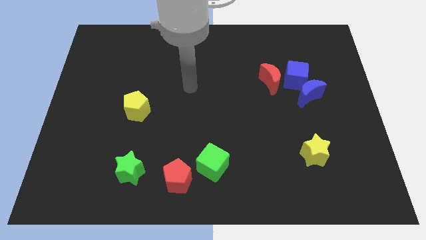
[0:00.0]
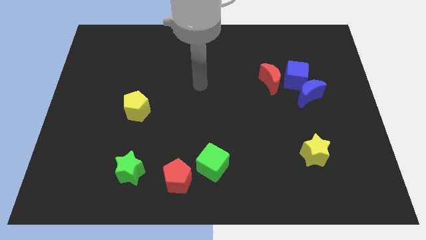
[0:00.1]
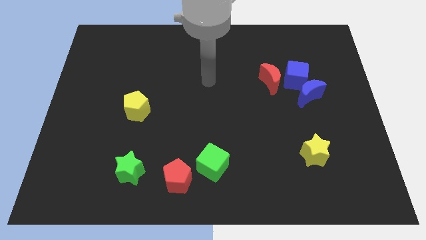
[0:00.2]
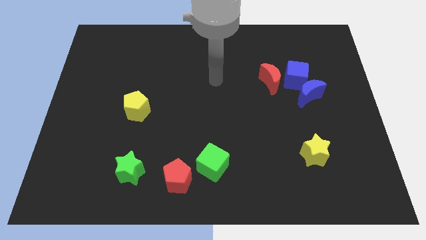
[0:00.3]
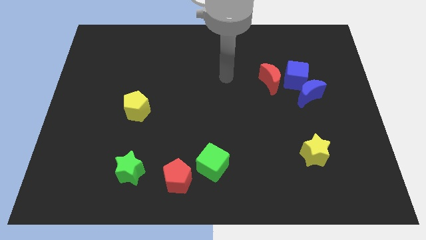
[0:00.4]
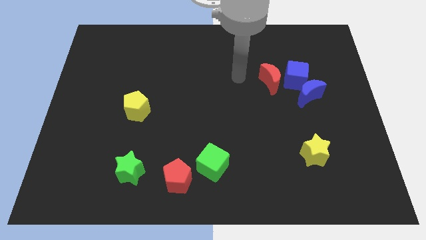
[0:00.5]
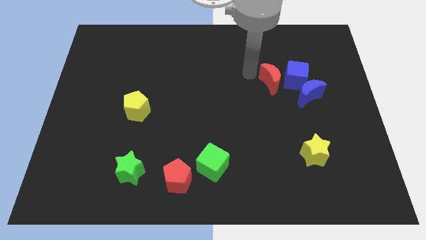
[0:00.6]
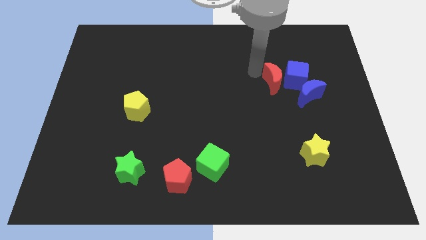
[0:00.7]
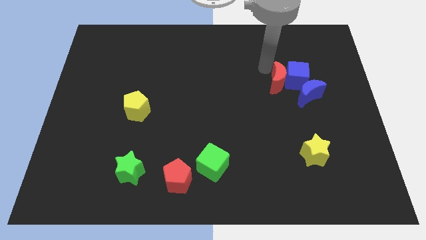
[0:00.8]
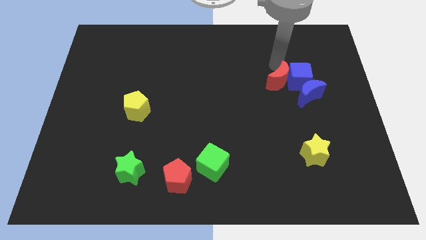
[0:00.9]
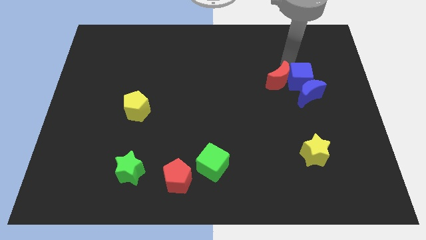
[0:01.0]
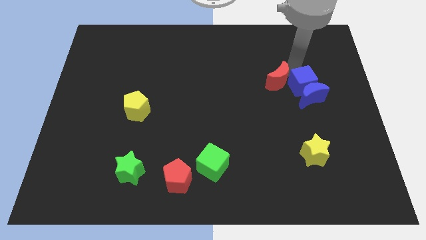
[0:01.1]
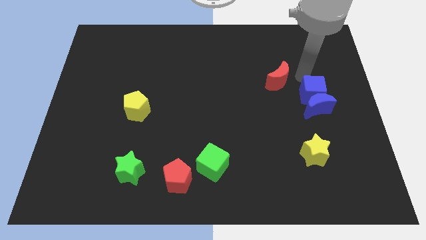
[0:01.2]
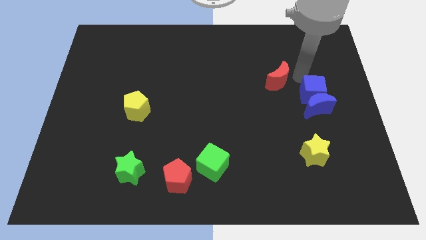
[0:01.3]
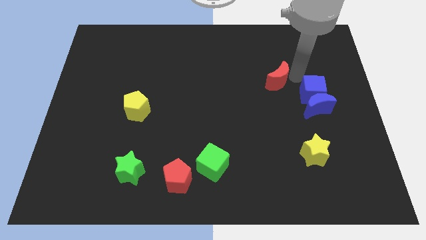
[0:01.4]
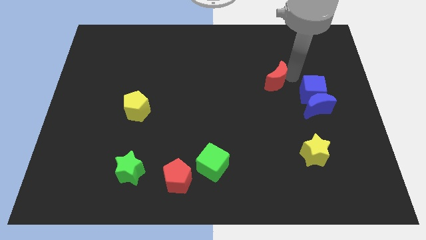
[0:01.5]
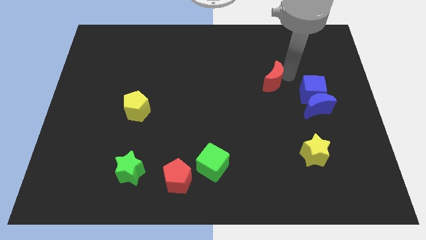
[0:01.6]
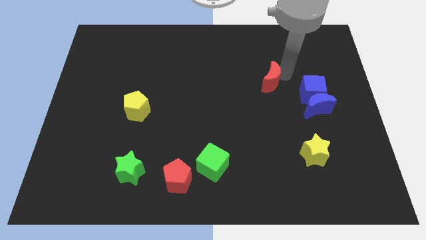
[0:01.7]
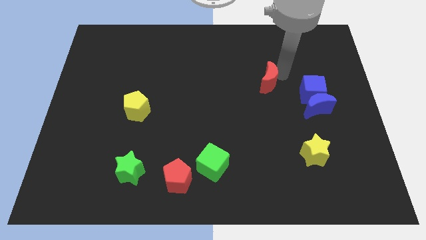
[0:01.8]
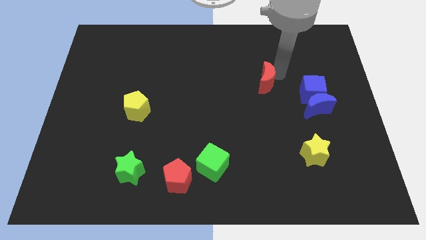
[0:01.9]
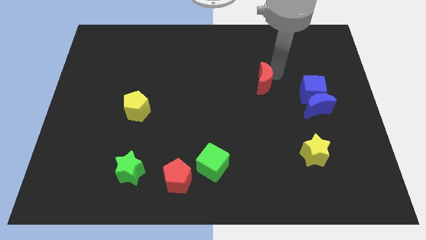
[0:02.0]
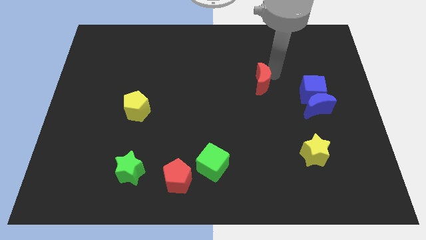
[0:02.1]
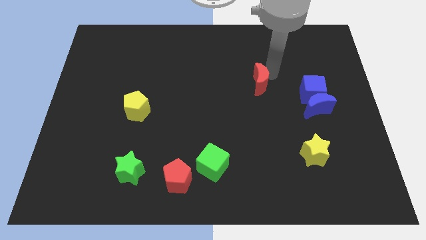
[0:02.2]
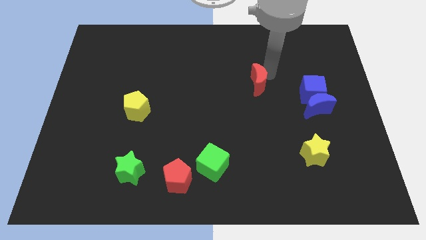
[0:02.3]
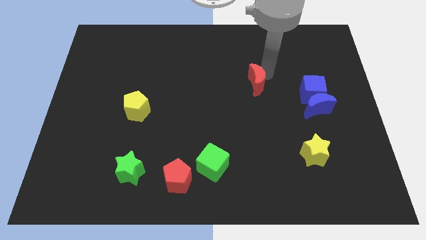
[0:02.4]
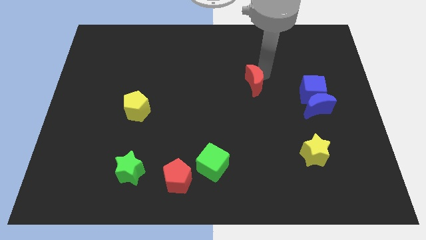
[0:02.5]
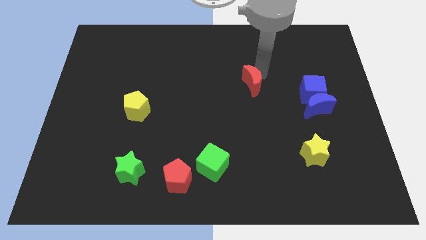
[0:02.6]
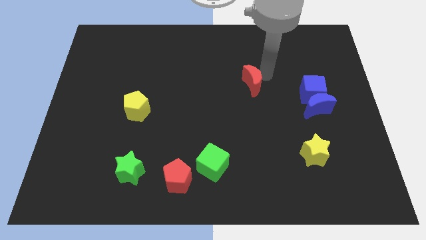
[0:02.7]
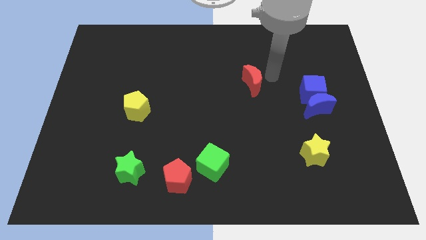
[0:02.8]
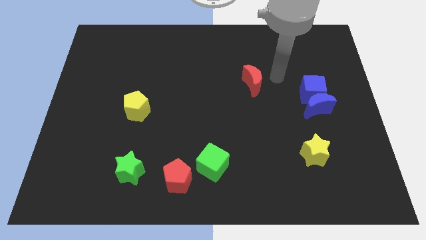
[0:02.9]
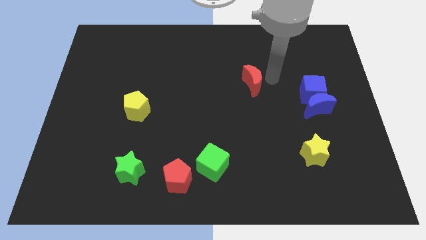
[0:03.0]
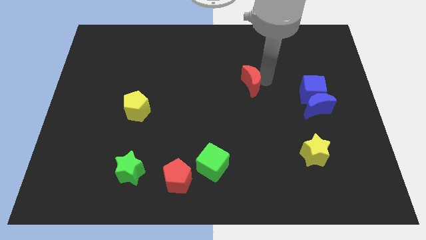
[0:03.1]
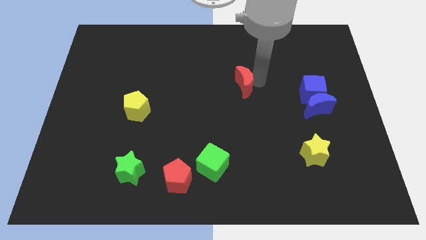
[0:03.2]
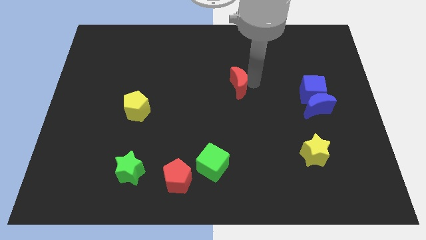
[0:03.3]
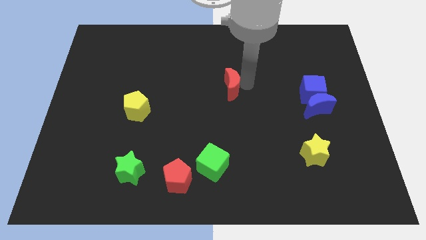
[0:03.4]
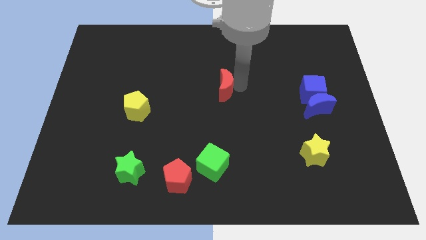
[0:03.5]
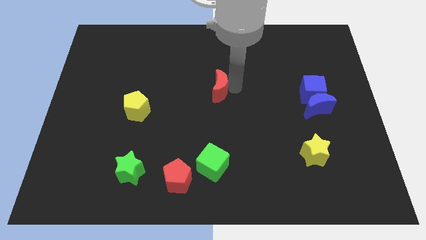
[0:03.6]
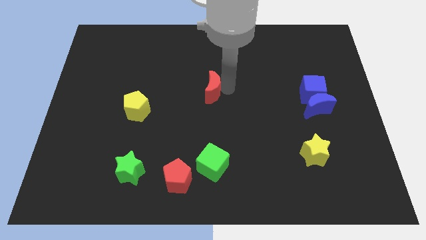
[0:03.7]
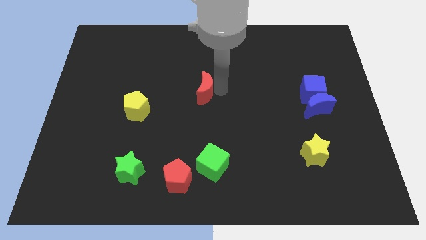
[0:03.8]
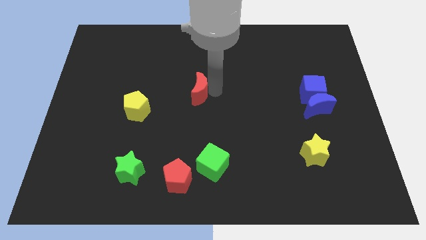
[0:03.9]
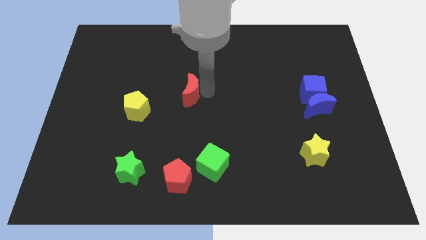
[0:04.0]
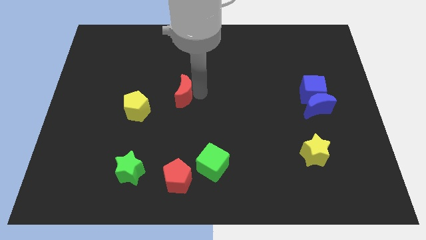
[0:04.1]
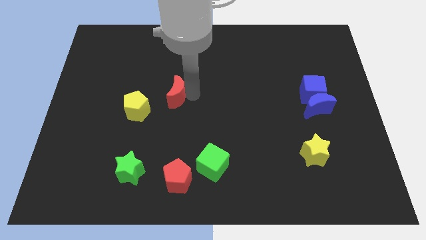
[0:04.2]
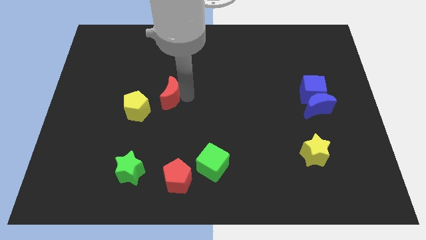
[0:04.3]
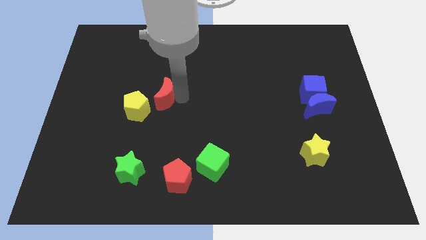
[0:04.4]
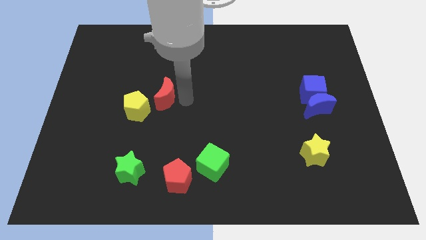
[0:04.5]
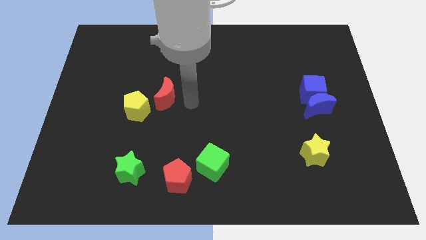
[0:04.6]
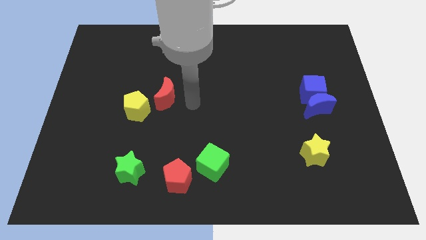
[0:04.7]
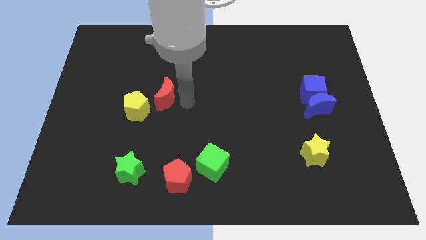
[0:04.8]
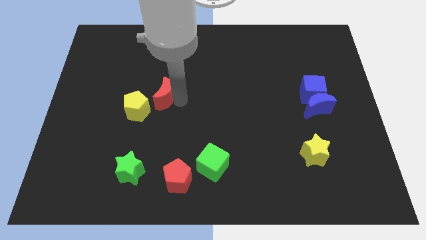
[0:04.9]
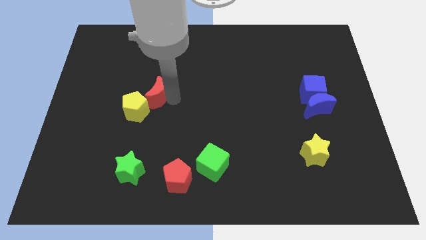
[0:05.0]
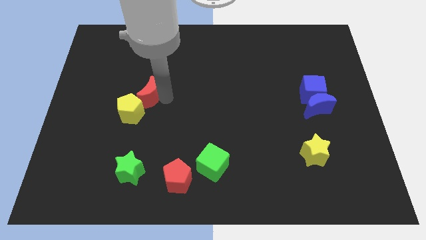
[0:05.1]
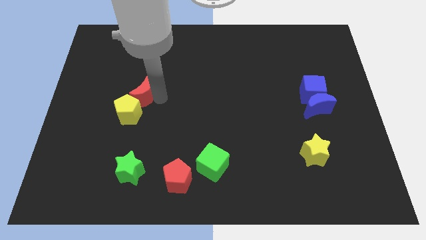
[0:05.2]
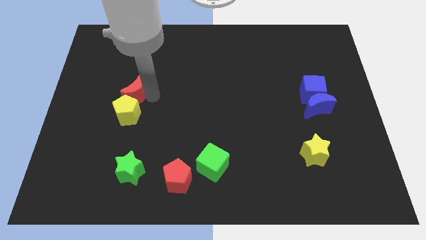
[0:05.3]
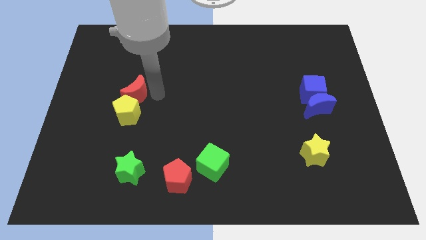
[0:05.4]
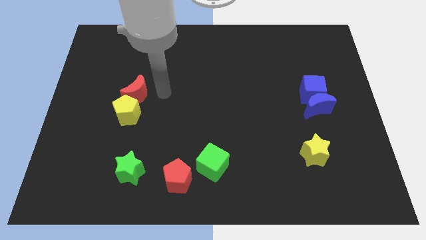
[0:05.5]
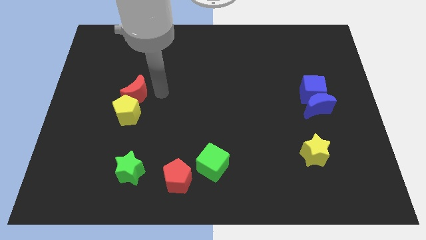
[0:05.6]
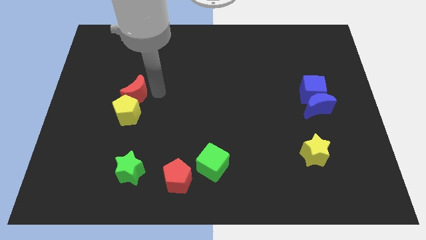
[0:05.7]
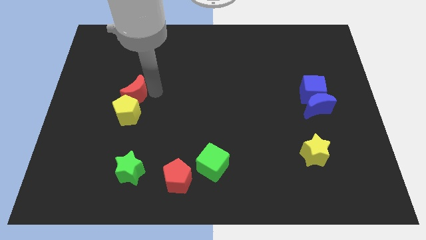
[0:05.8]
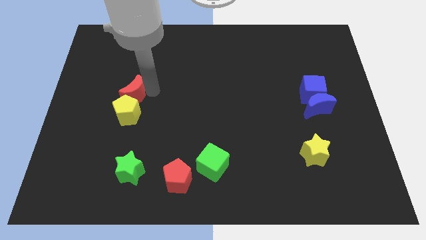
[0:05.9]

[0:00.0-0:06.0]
move the red moon to the top left of the yellow pentagon

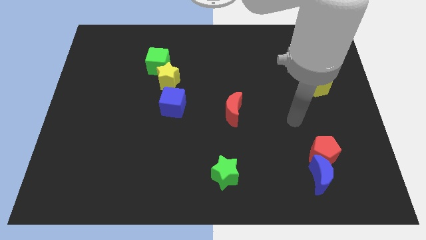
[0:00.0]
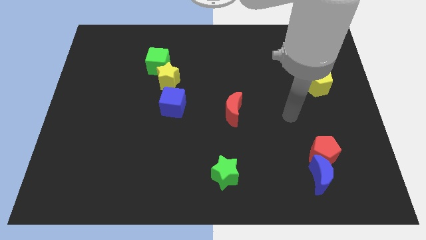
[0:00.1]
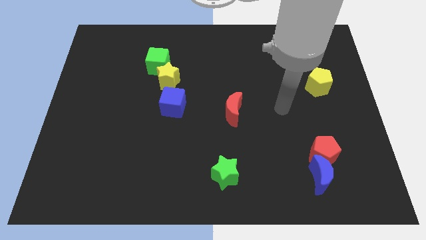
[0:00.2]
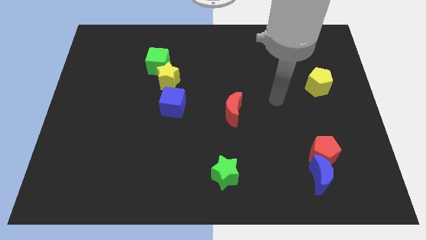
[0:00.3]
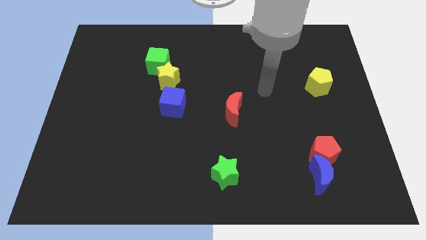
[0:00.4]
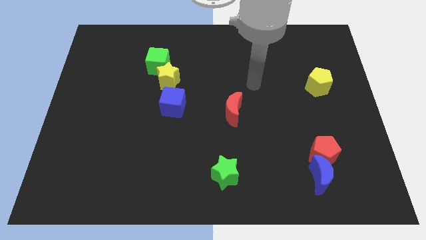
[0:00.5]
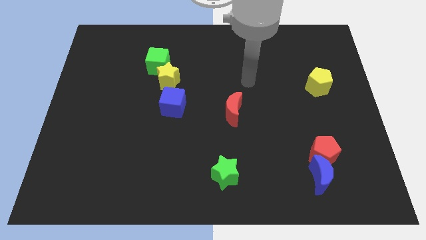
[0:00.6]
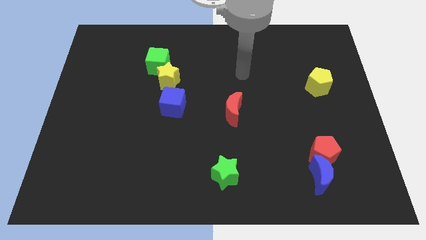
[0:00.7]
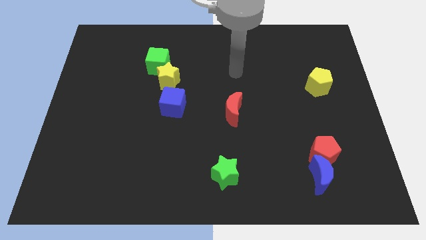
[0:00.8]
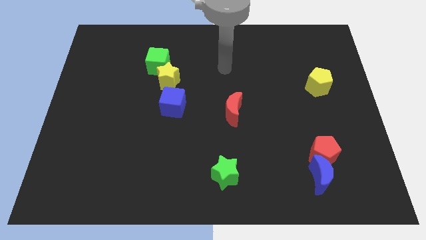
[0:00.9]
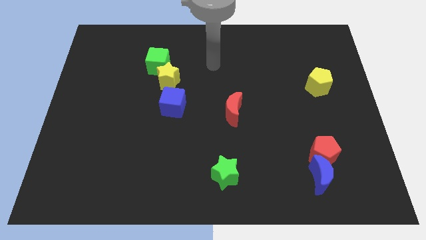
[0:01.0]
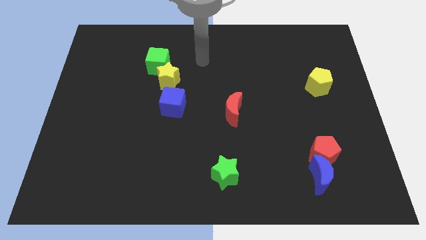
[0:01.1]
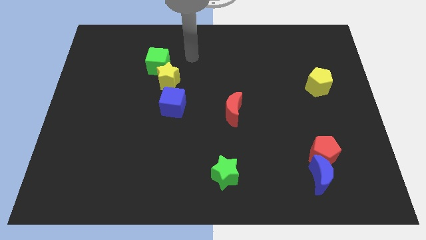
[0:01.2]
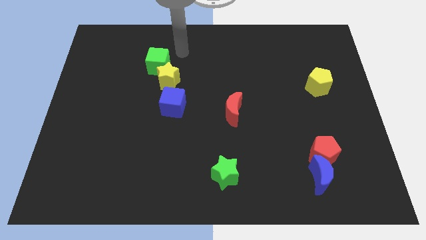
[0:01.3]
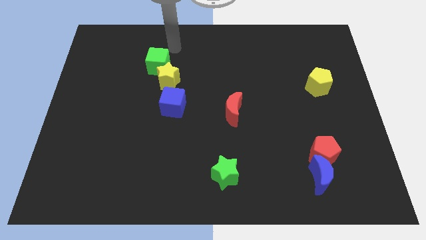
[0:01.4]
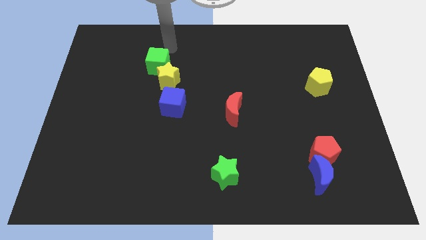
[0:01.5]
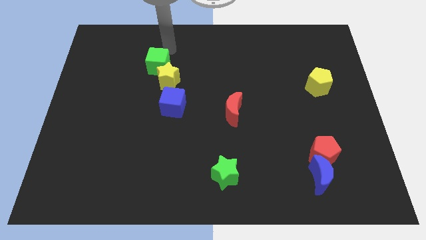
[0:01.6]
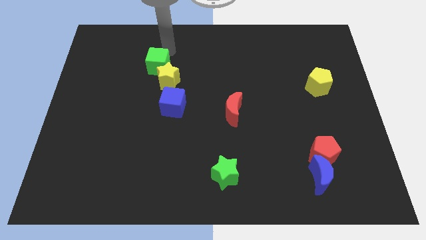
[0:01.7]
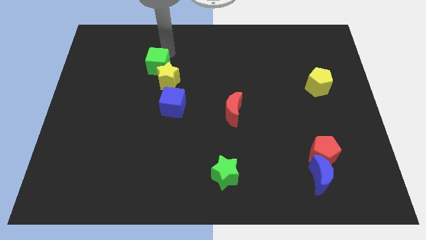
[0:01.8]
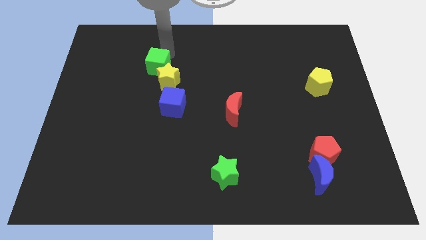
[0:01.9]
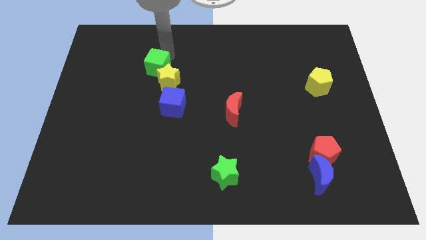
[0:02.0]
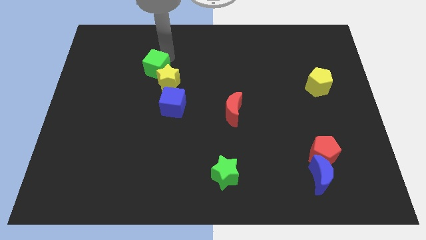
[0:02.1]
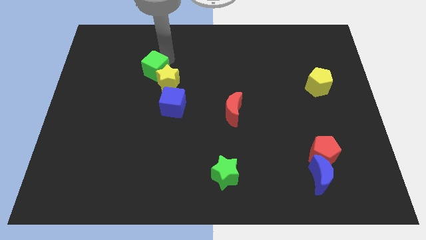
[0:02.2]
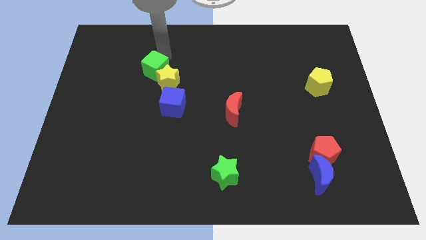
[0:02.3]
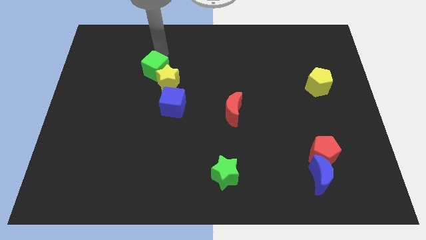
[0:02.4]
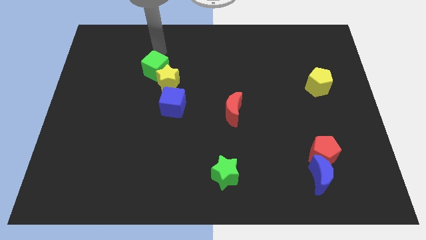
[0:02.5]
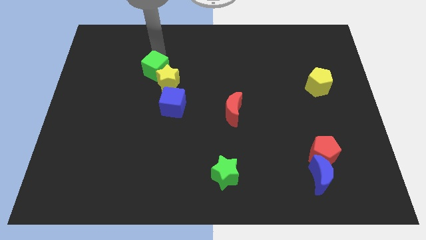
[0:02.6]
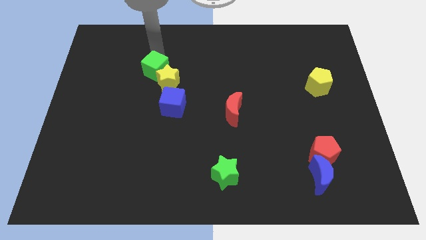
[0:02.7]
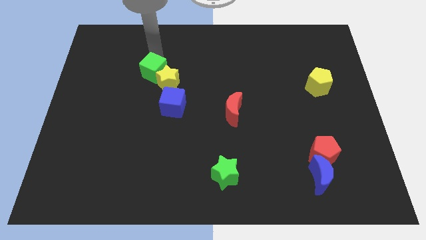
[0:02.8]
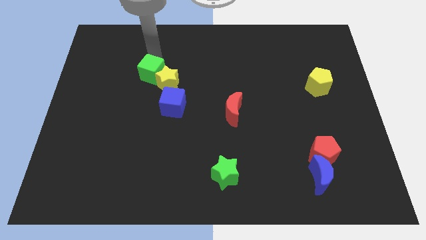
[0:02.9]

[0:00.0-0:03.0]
move the green cube to the top left of the blue cube
